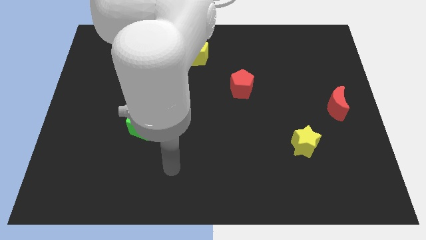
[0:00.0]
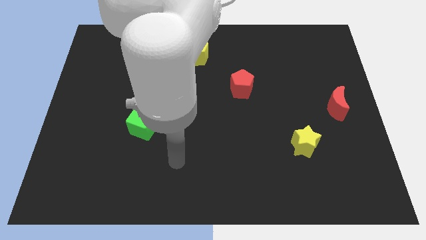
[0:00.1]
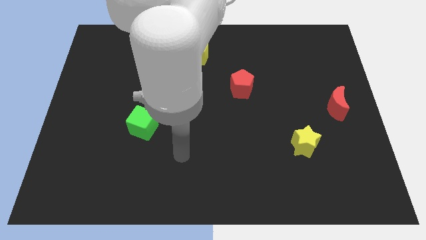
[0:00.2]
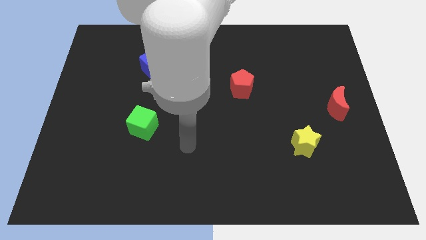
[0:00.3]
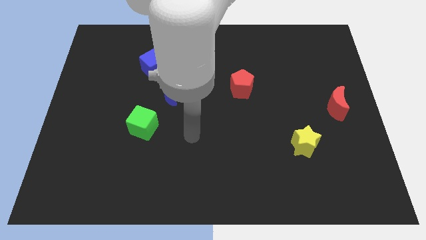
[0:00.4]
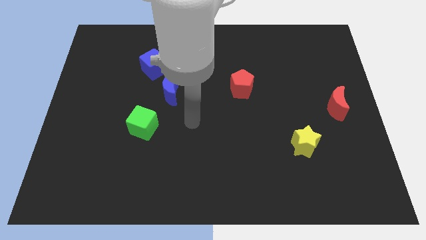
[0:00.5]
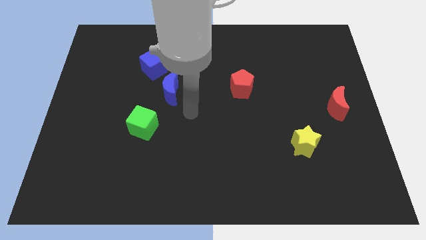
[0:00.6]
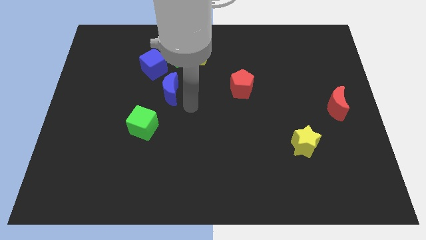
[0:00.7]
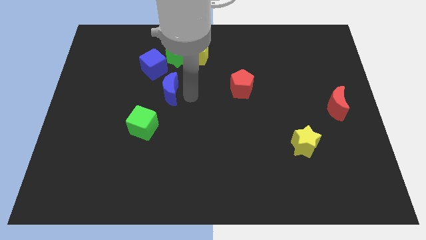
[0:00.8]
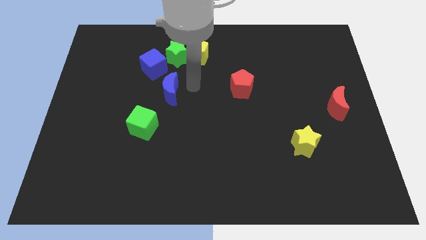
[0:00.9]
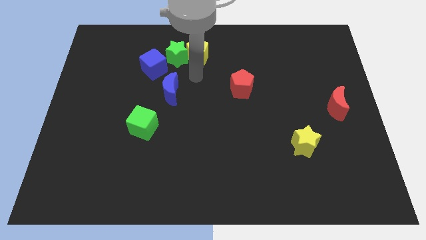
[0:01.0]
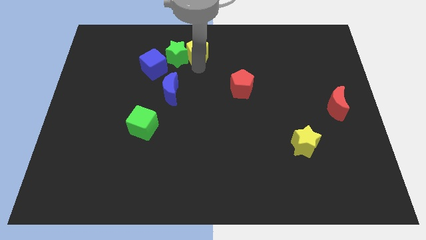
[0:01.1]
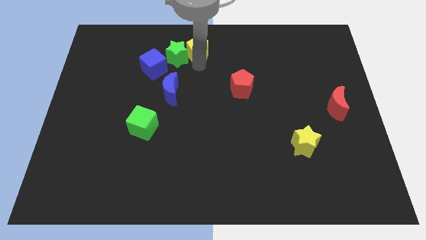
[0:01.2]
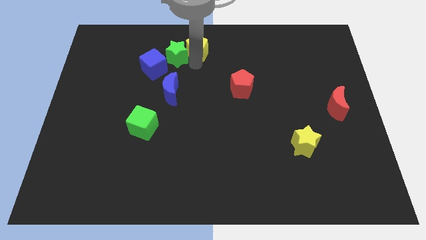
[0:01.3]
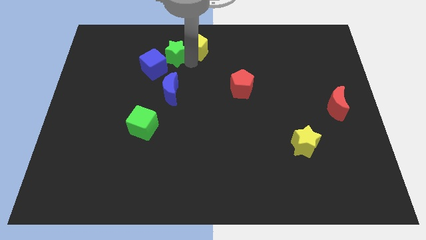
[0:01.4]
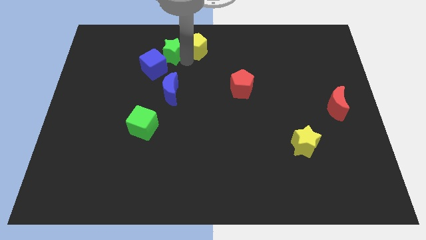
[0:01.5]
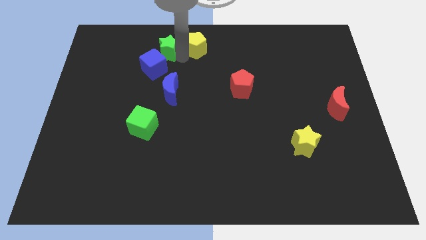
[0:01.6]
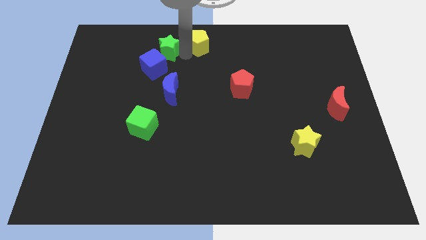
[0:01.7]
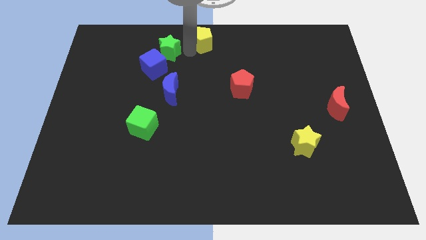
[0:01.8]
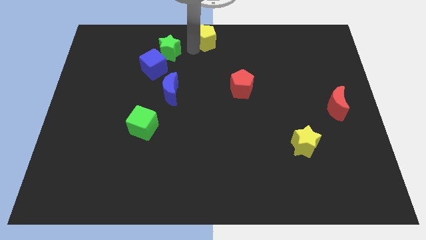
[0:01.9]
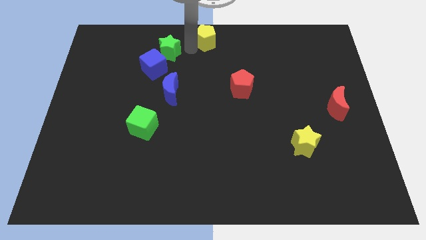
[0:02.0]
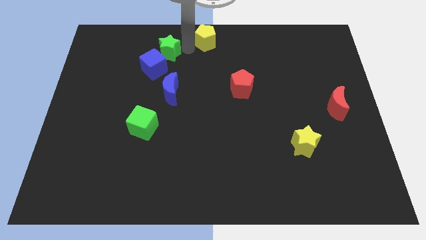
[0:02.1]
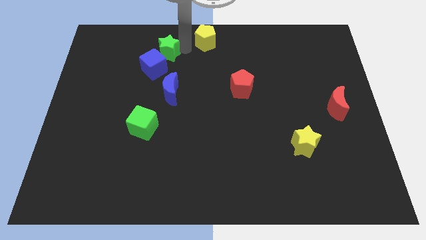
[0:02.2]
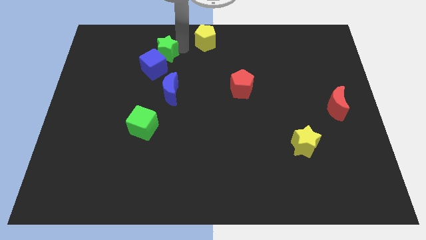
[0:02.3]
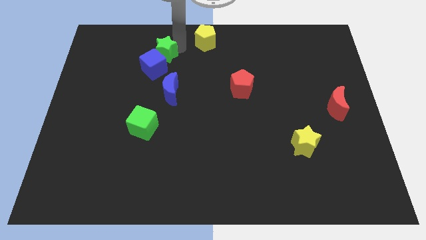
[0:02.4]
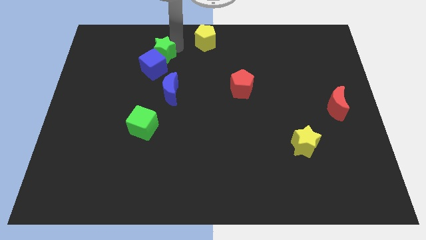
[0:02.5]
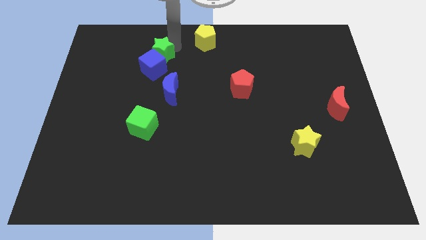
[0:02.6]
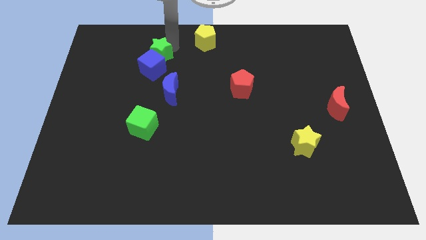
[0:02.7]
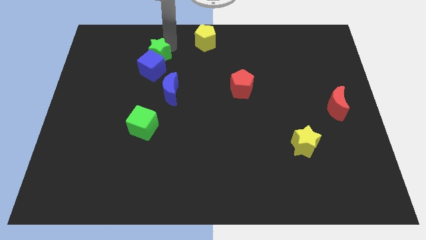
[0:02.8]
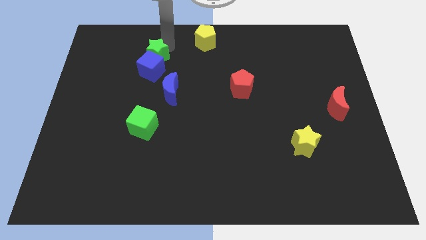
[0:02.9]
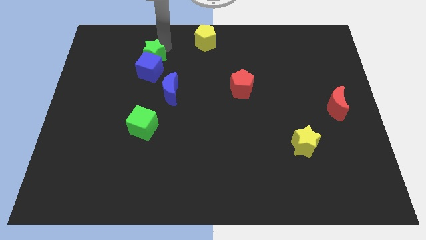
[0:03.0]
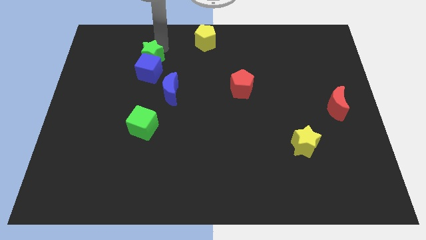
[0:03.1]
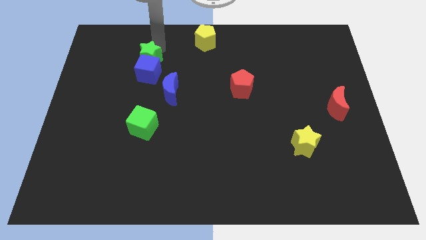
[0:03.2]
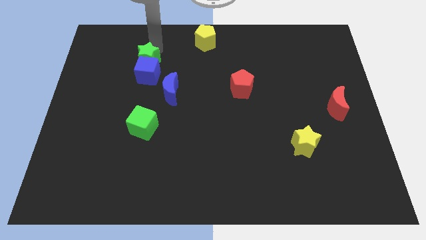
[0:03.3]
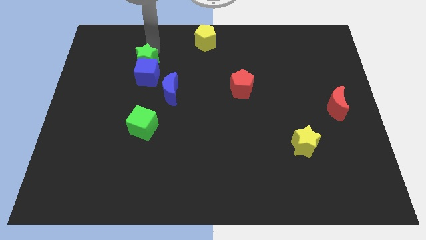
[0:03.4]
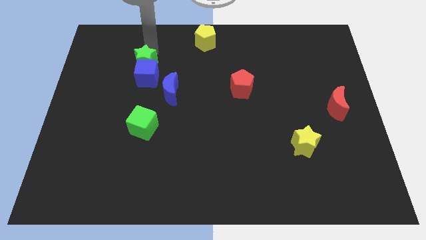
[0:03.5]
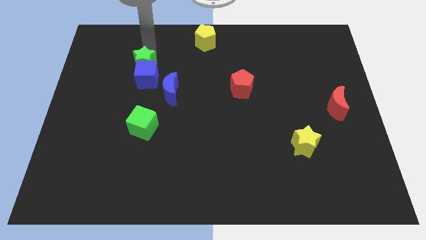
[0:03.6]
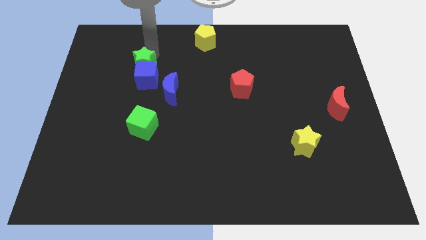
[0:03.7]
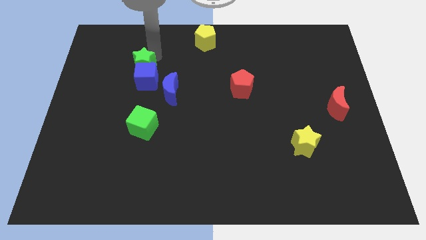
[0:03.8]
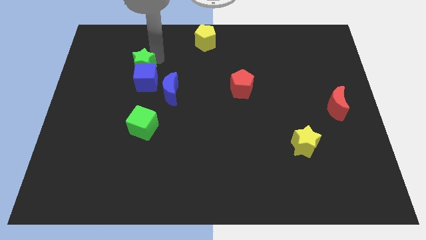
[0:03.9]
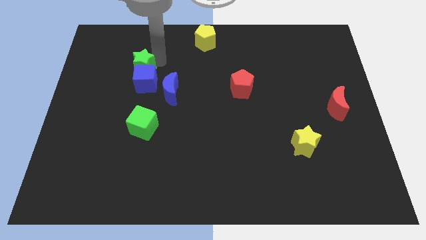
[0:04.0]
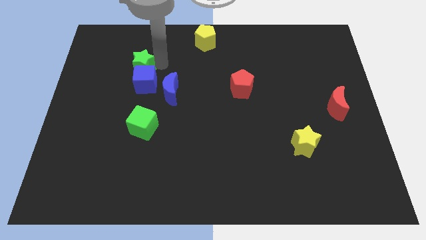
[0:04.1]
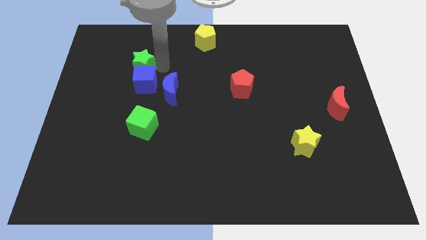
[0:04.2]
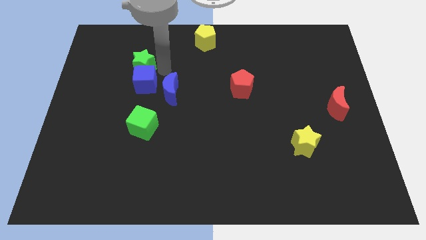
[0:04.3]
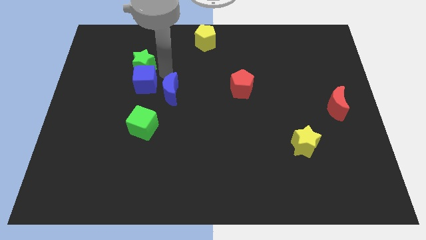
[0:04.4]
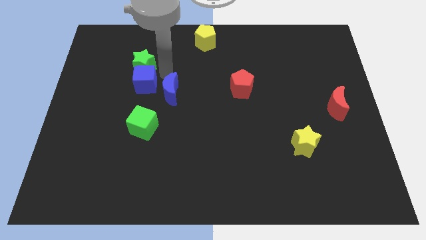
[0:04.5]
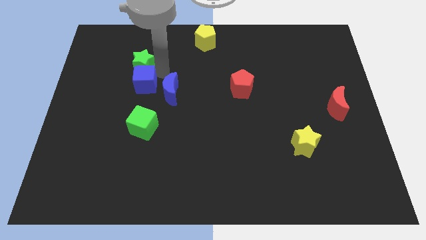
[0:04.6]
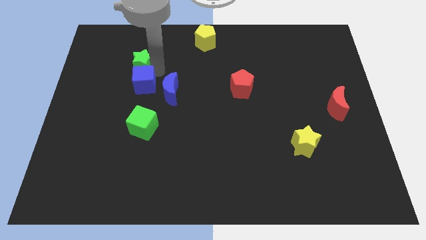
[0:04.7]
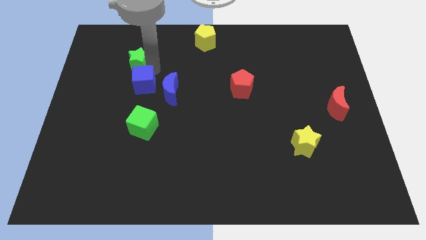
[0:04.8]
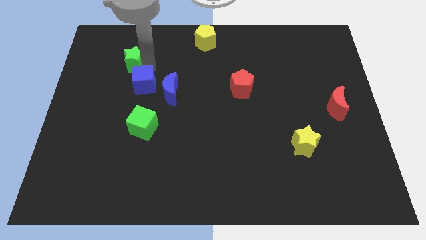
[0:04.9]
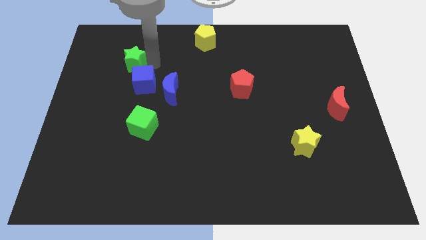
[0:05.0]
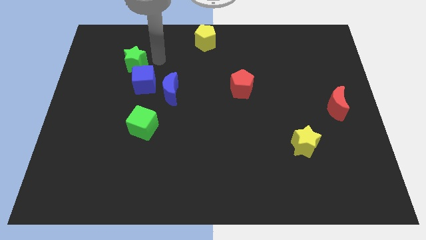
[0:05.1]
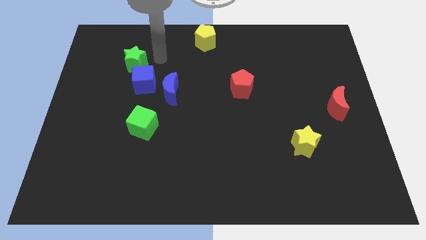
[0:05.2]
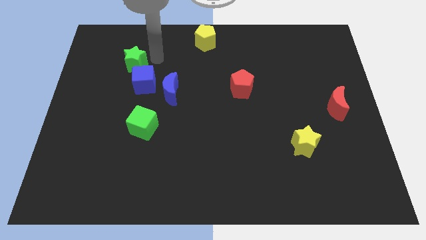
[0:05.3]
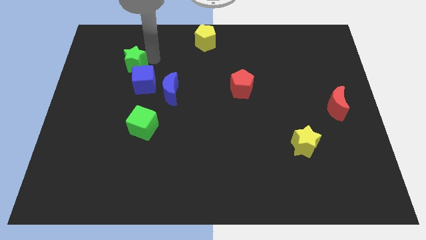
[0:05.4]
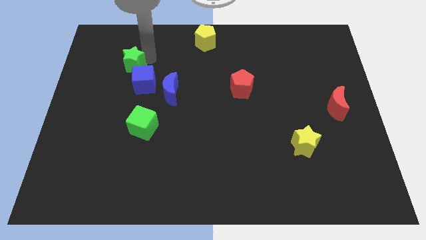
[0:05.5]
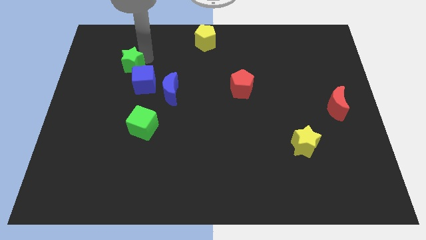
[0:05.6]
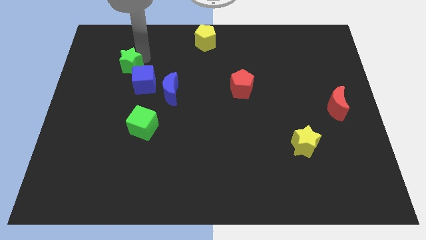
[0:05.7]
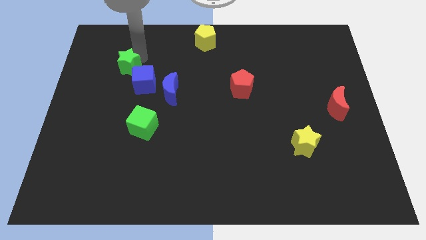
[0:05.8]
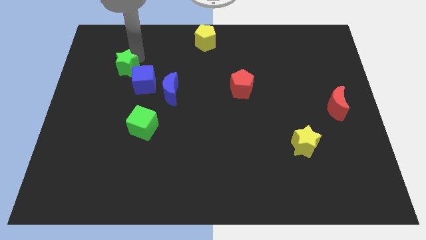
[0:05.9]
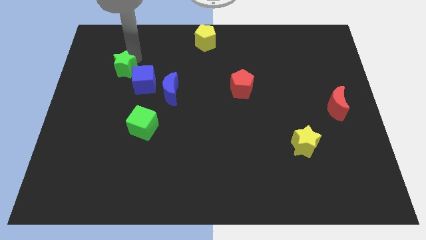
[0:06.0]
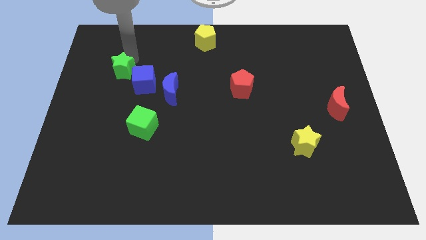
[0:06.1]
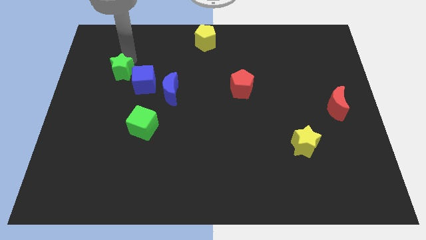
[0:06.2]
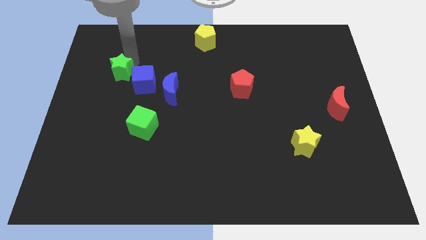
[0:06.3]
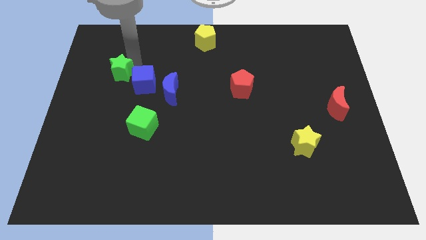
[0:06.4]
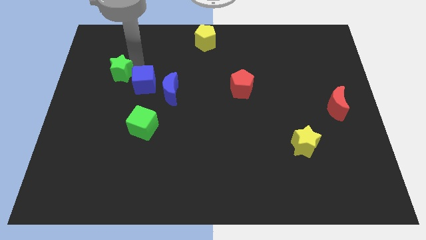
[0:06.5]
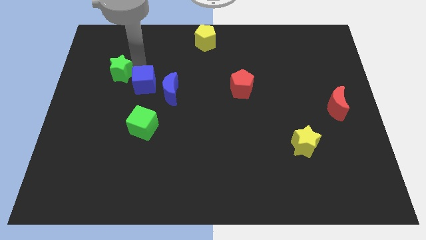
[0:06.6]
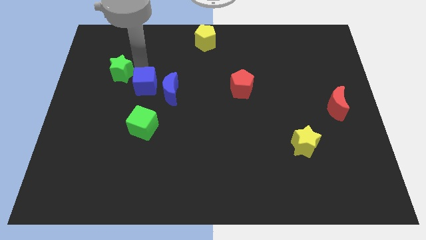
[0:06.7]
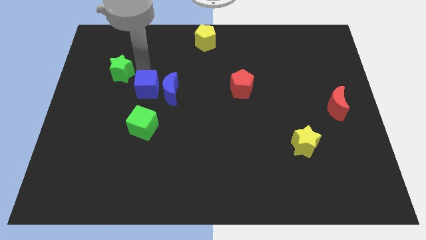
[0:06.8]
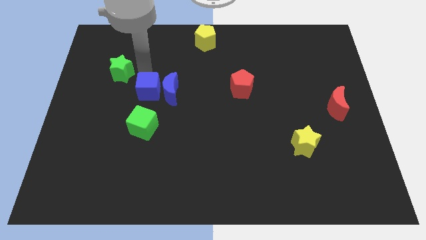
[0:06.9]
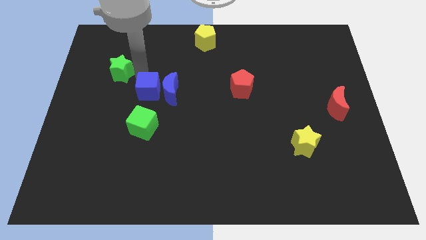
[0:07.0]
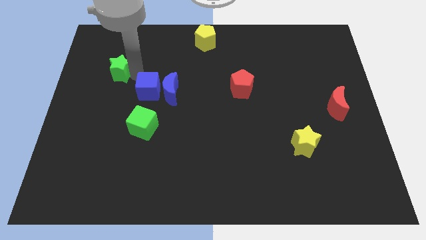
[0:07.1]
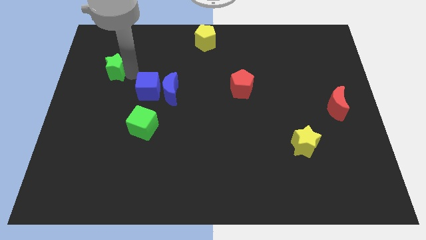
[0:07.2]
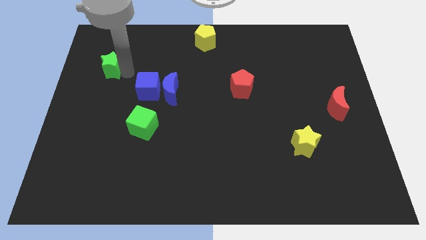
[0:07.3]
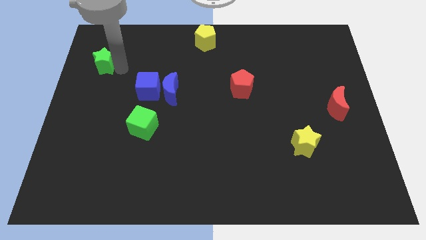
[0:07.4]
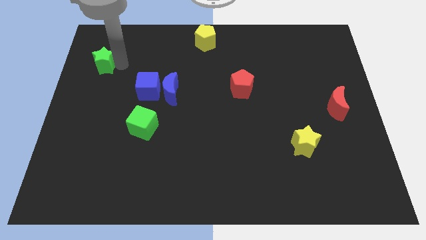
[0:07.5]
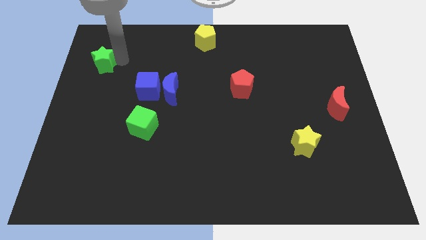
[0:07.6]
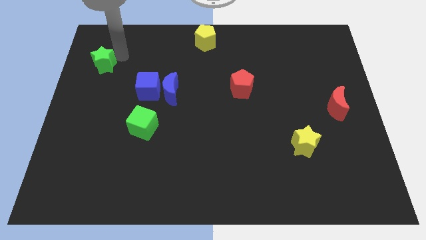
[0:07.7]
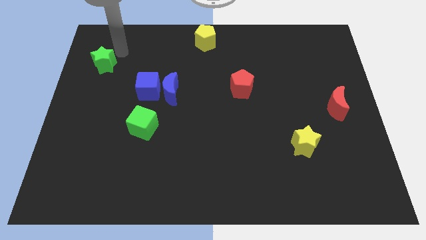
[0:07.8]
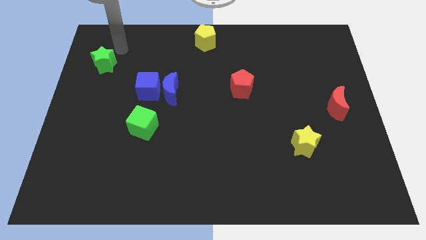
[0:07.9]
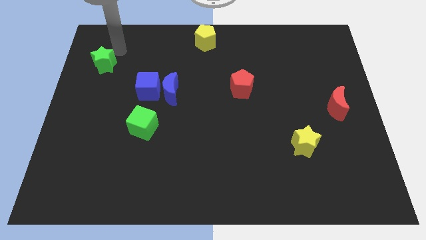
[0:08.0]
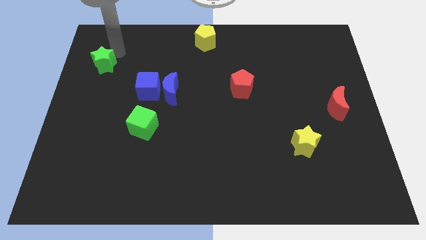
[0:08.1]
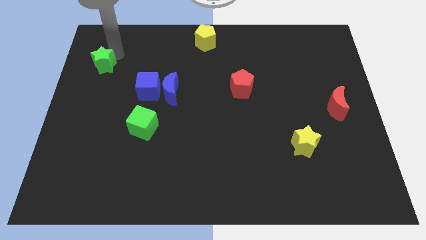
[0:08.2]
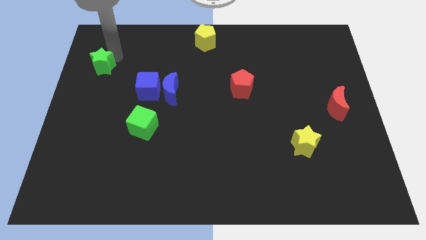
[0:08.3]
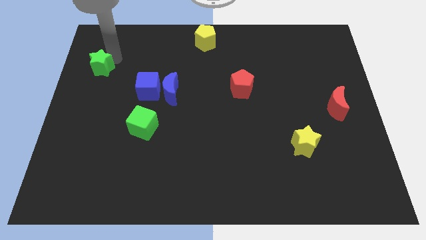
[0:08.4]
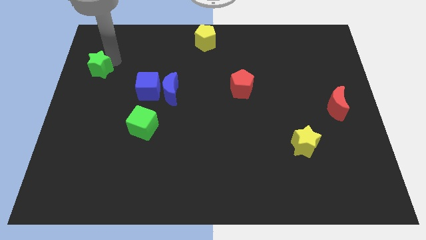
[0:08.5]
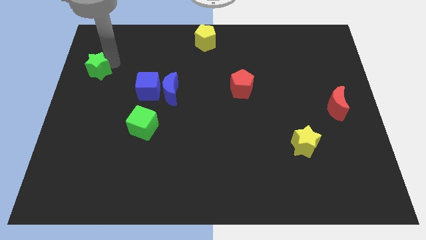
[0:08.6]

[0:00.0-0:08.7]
slide the green star to the left side
